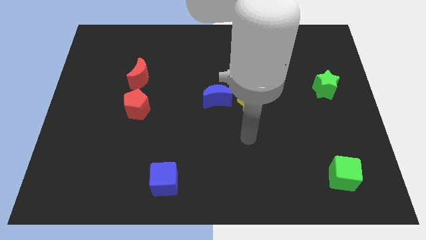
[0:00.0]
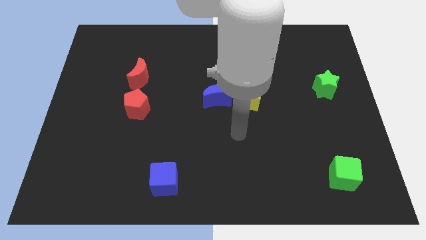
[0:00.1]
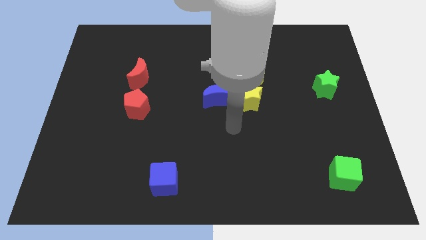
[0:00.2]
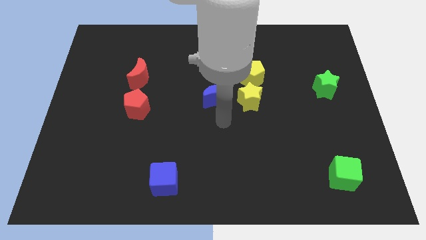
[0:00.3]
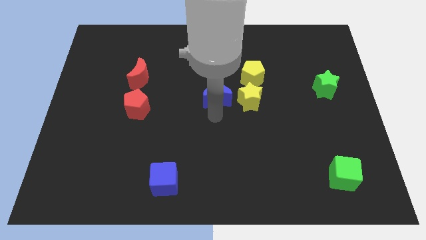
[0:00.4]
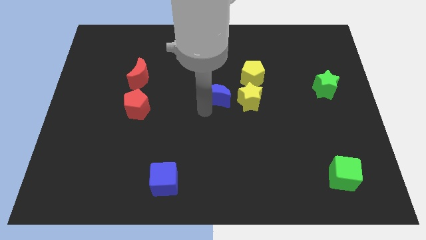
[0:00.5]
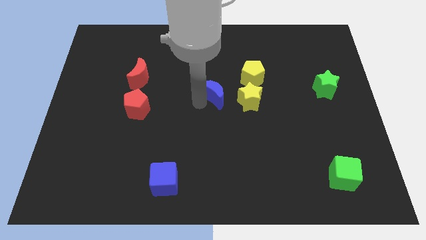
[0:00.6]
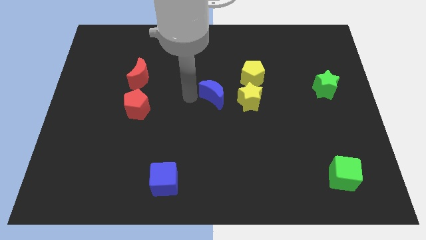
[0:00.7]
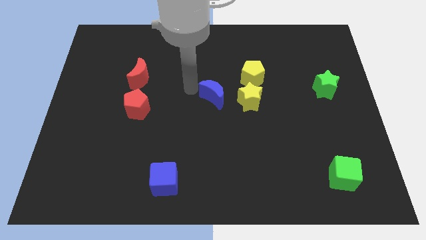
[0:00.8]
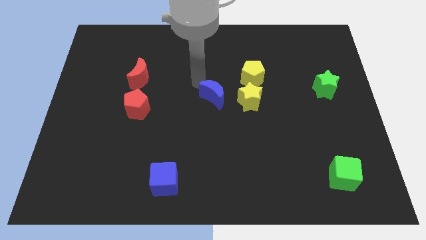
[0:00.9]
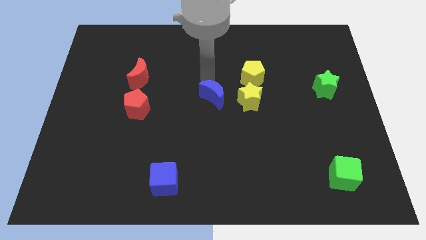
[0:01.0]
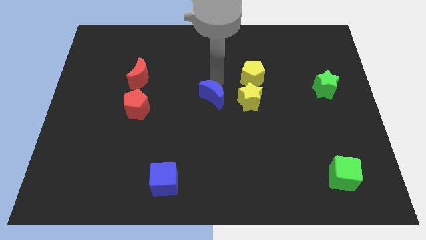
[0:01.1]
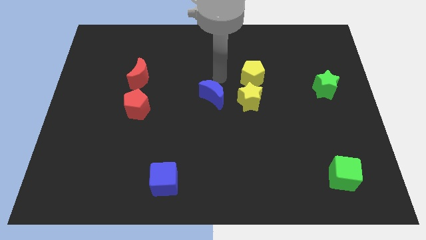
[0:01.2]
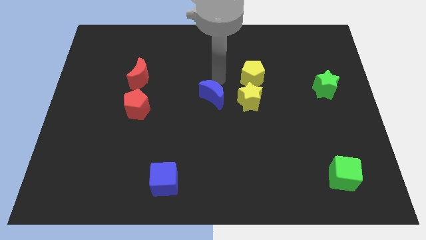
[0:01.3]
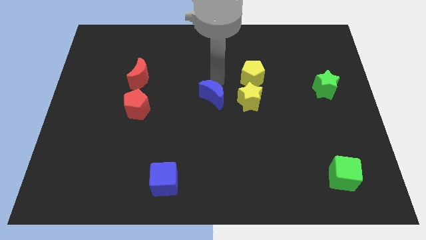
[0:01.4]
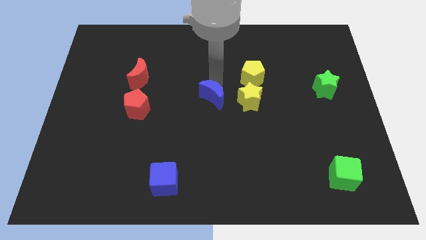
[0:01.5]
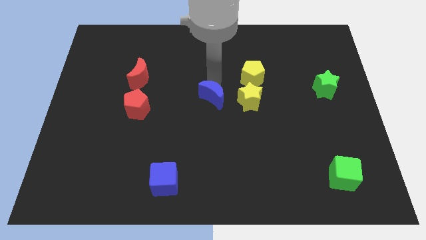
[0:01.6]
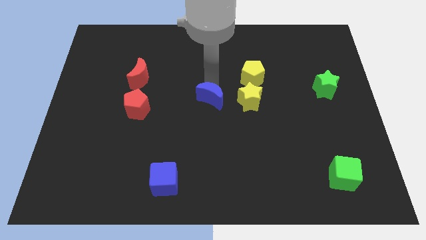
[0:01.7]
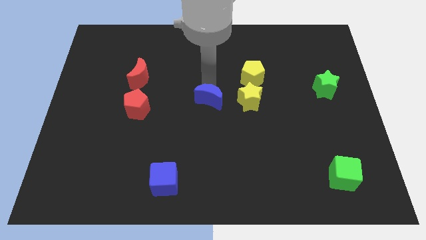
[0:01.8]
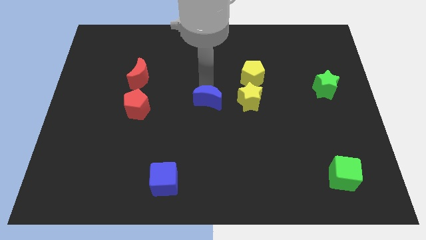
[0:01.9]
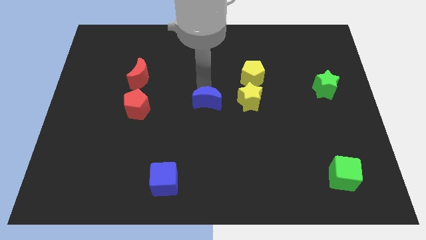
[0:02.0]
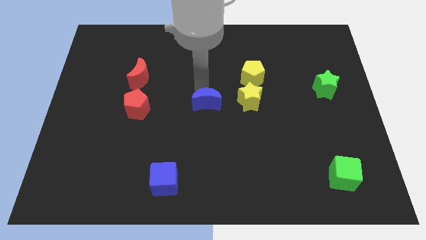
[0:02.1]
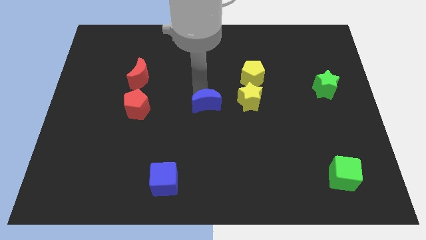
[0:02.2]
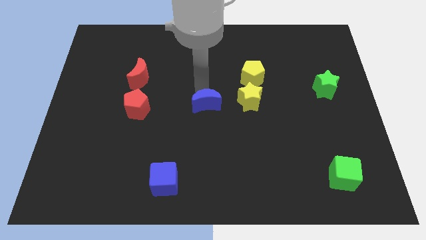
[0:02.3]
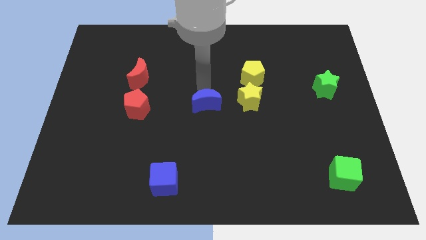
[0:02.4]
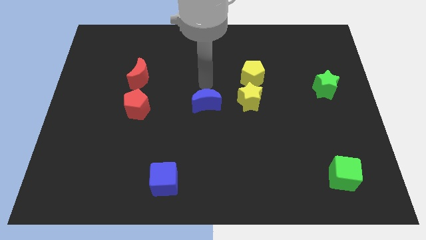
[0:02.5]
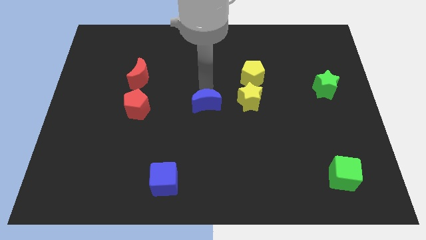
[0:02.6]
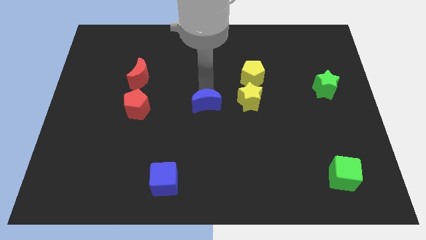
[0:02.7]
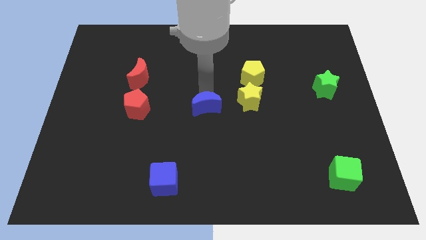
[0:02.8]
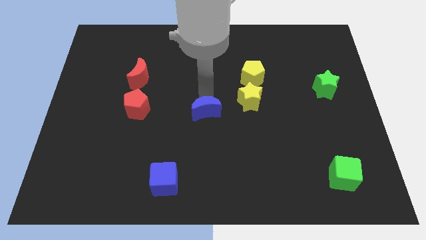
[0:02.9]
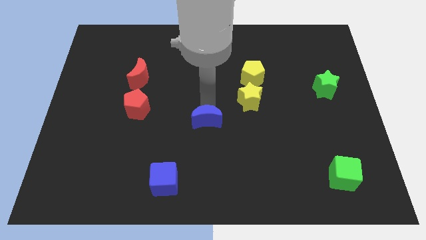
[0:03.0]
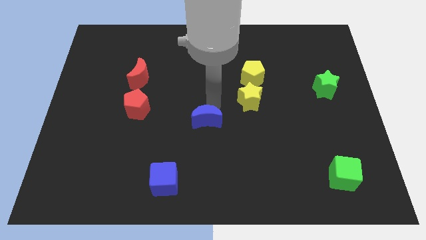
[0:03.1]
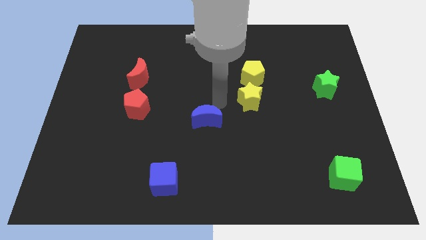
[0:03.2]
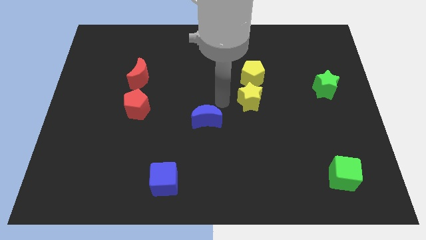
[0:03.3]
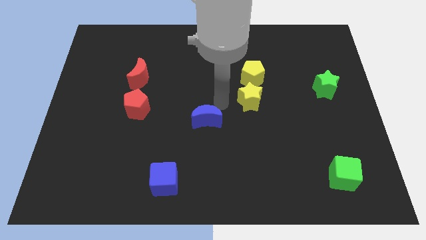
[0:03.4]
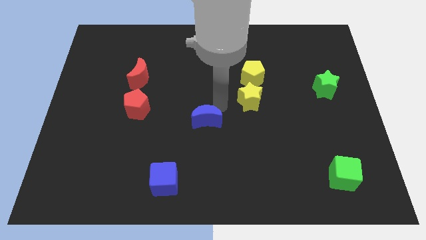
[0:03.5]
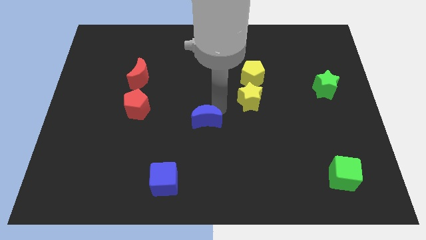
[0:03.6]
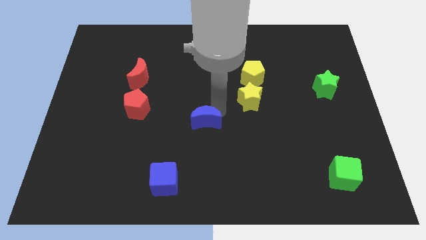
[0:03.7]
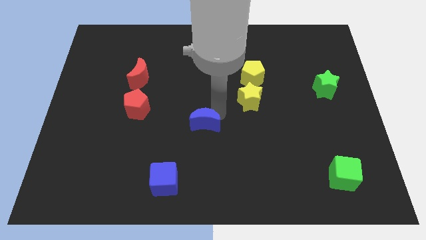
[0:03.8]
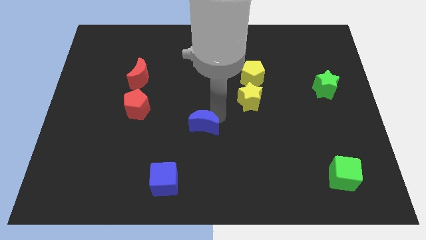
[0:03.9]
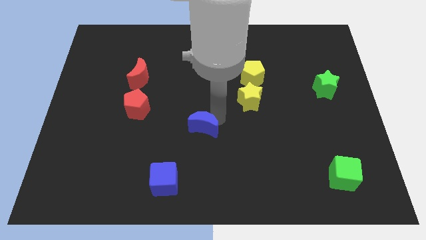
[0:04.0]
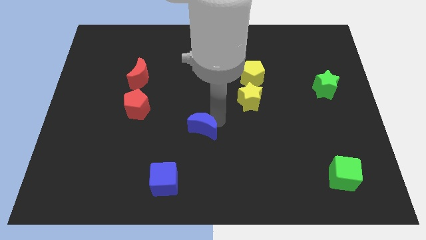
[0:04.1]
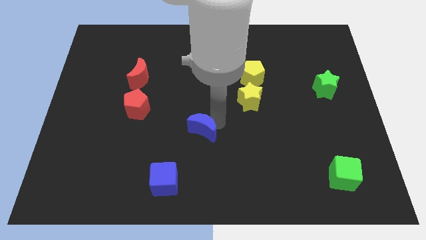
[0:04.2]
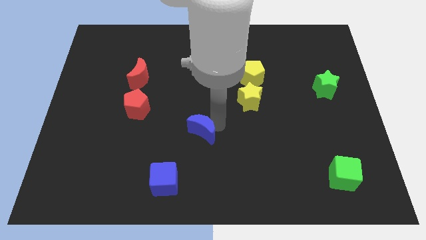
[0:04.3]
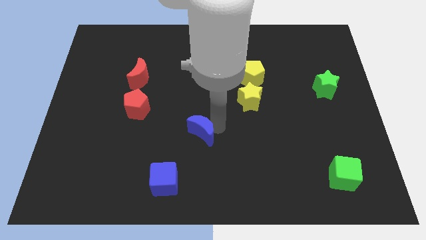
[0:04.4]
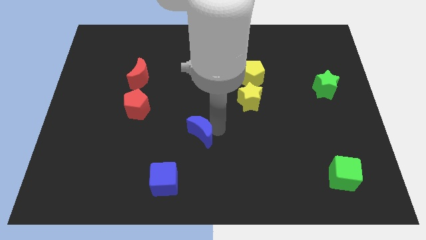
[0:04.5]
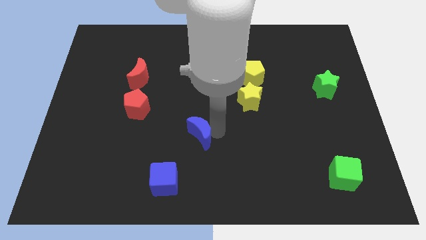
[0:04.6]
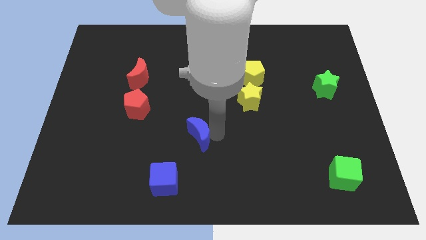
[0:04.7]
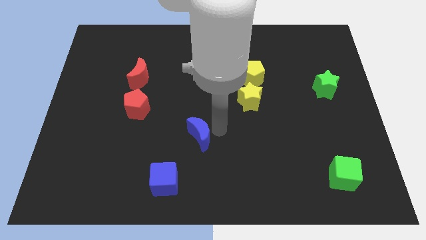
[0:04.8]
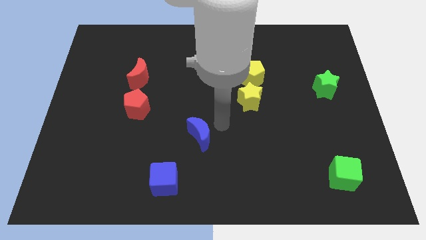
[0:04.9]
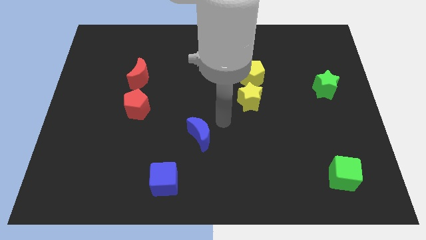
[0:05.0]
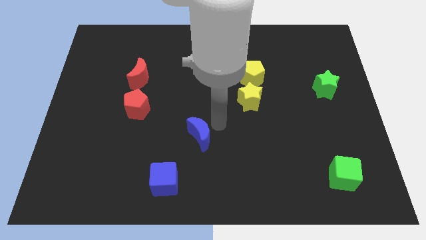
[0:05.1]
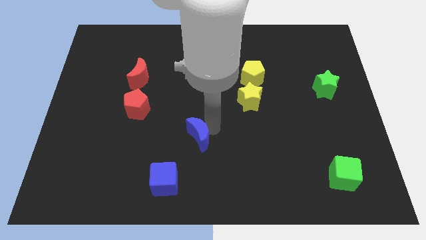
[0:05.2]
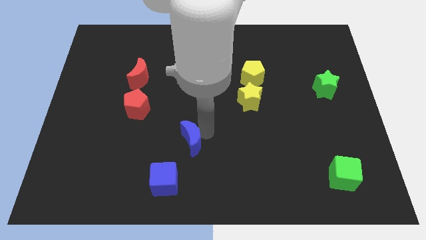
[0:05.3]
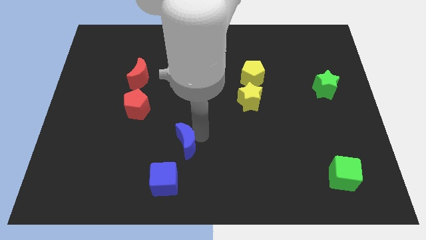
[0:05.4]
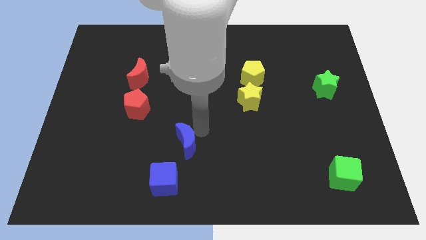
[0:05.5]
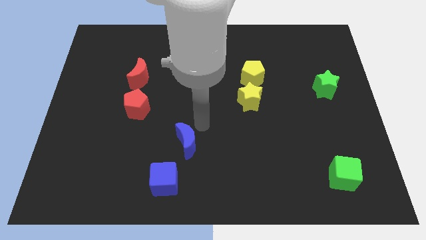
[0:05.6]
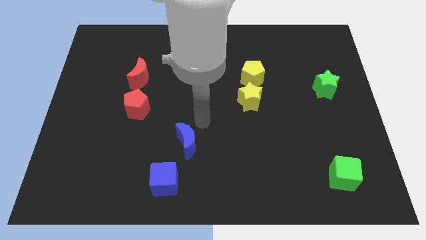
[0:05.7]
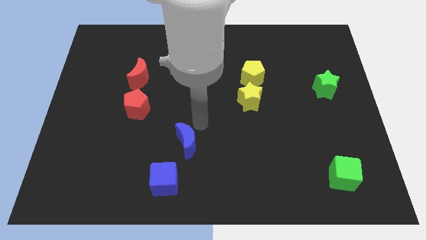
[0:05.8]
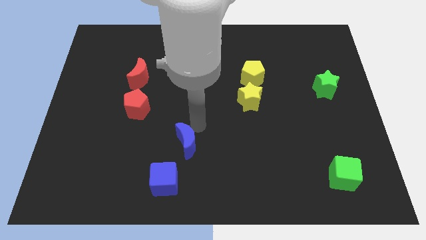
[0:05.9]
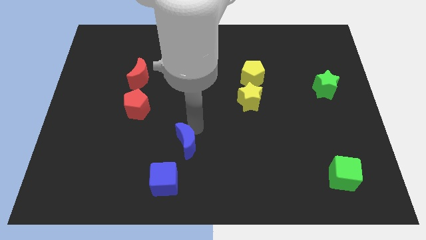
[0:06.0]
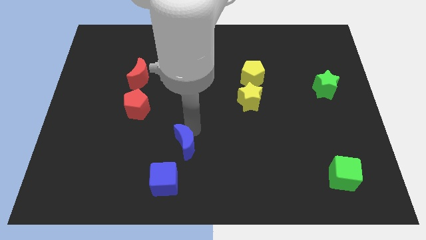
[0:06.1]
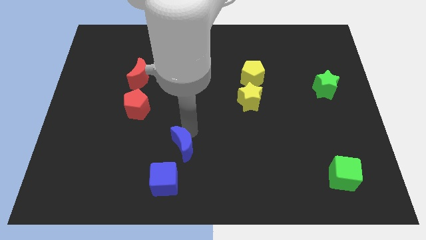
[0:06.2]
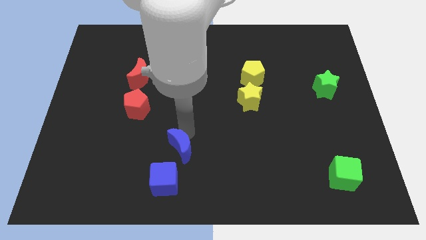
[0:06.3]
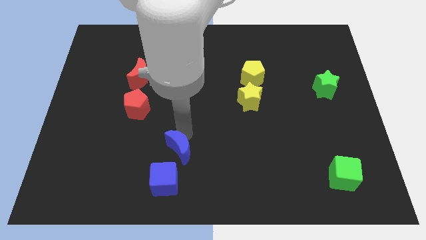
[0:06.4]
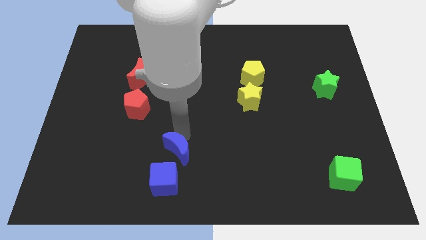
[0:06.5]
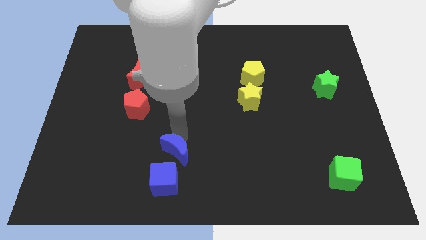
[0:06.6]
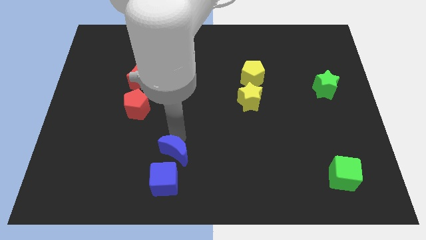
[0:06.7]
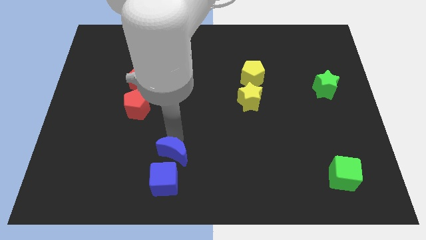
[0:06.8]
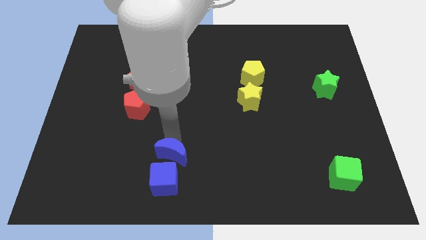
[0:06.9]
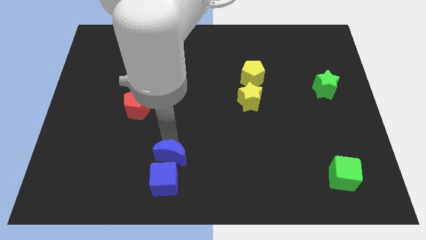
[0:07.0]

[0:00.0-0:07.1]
slide the blue moon close to the blue cube
